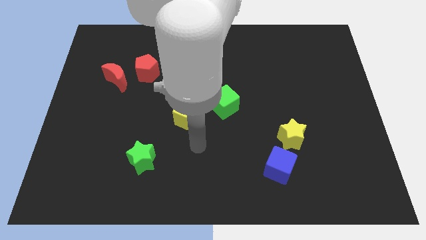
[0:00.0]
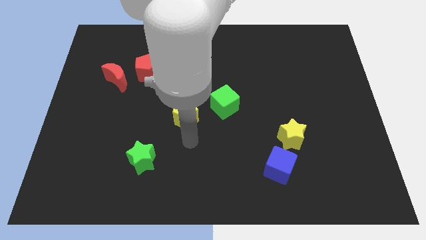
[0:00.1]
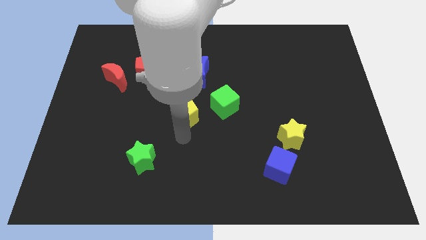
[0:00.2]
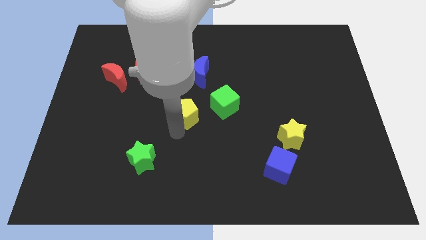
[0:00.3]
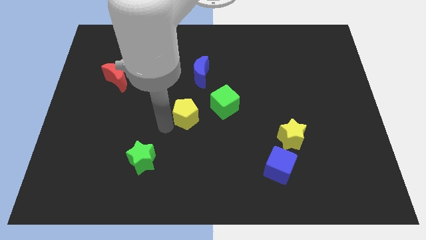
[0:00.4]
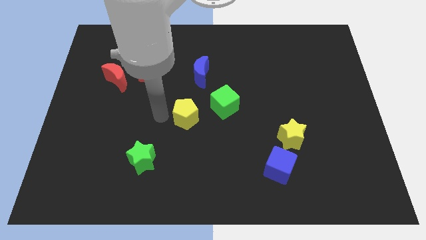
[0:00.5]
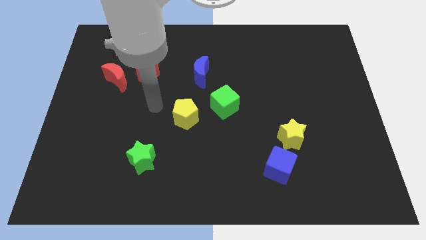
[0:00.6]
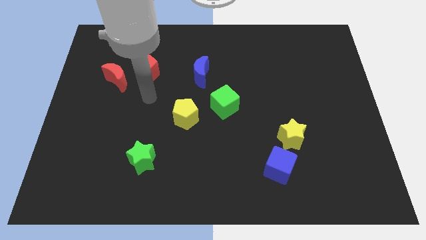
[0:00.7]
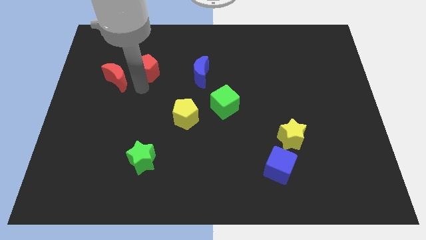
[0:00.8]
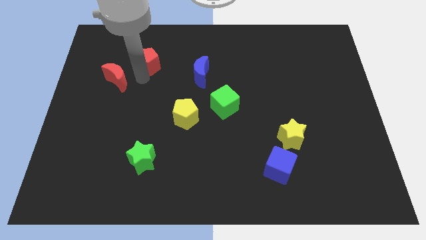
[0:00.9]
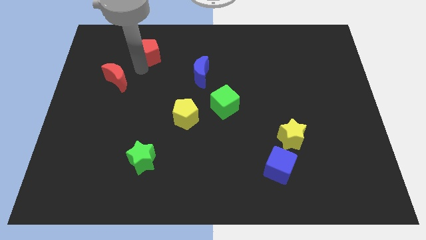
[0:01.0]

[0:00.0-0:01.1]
pull the red moon apart from the red pentagon

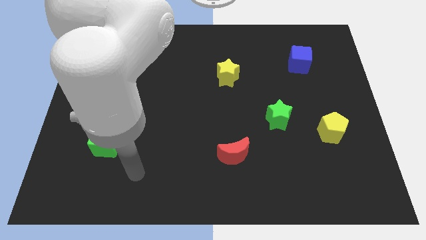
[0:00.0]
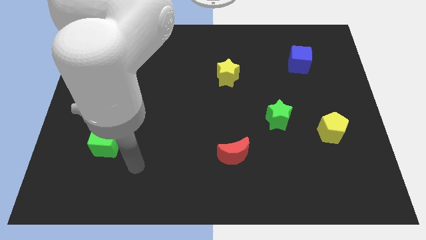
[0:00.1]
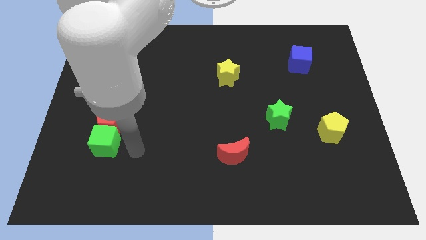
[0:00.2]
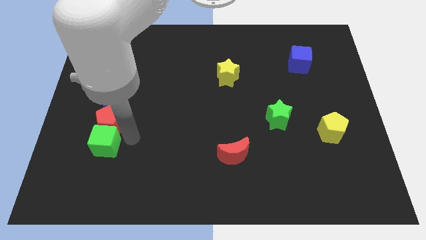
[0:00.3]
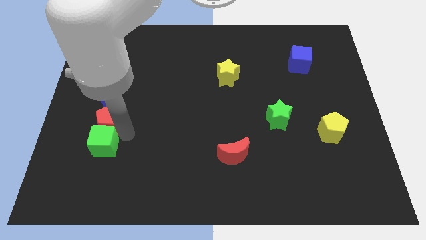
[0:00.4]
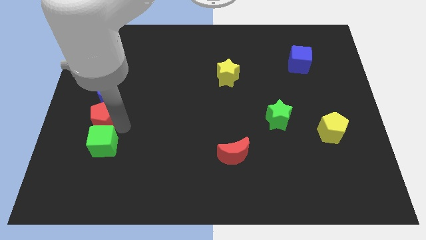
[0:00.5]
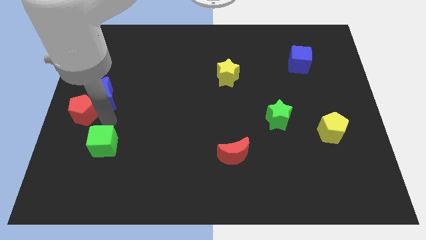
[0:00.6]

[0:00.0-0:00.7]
move the green cube away from the red pentagon

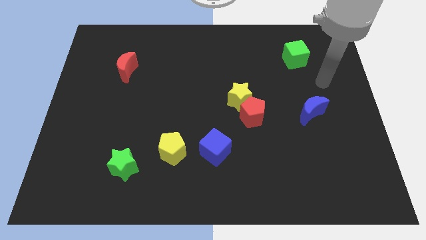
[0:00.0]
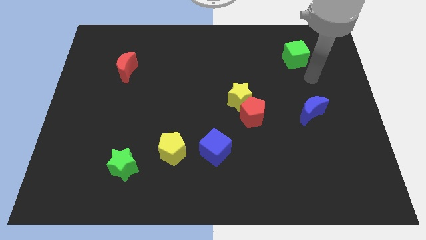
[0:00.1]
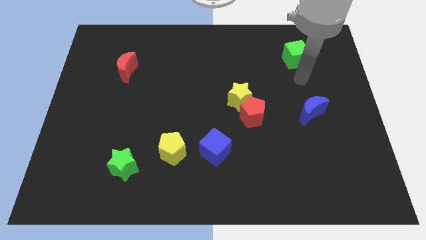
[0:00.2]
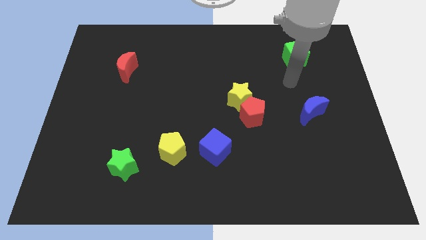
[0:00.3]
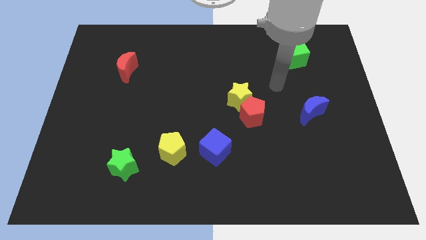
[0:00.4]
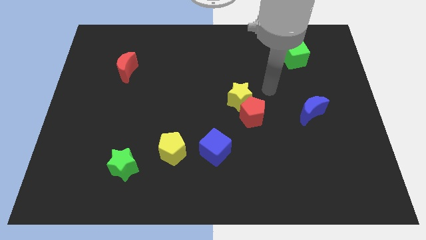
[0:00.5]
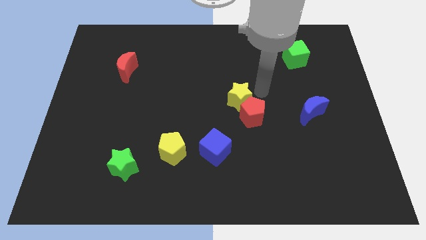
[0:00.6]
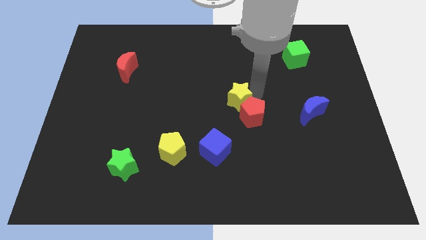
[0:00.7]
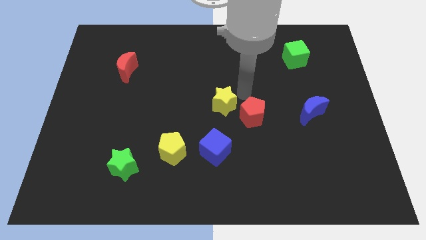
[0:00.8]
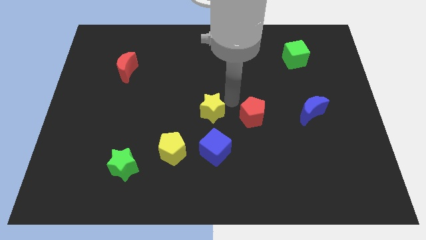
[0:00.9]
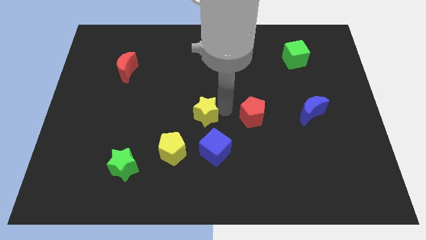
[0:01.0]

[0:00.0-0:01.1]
separate the red pentagon from the yellow star

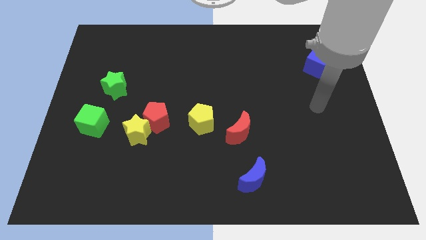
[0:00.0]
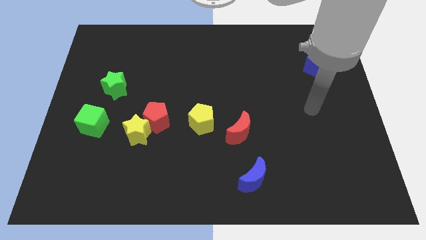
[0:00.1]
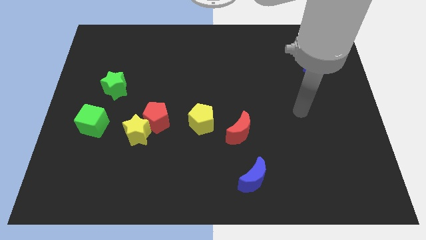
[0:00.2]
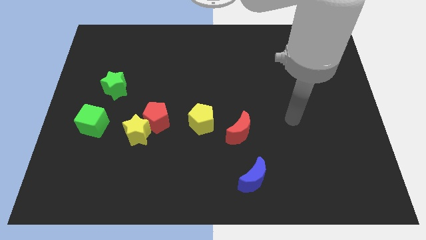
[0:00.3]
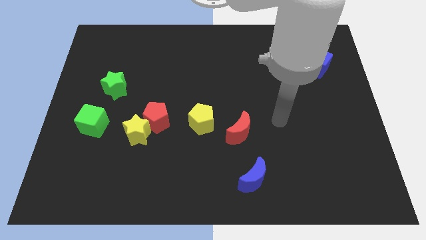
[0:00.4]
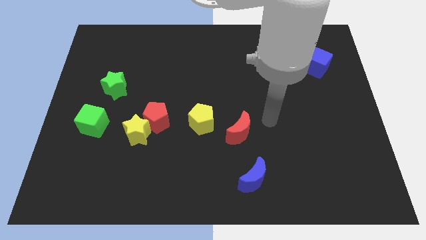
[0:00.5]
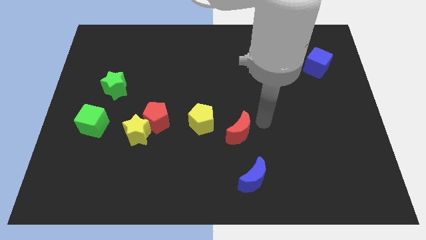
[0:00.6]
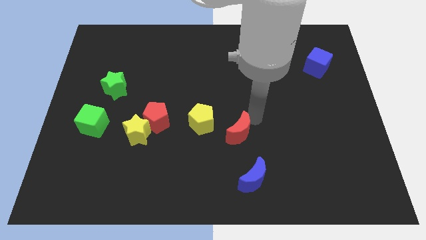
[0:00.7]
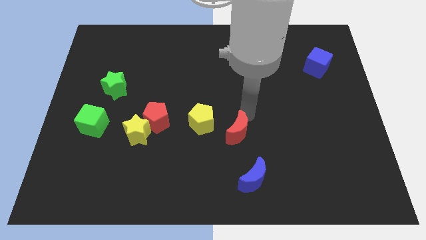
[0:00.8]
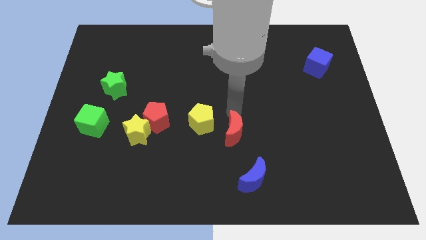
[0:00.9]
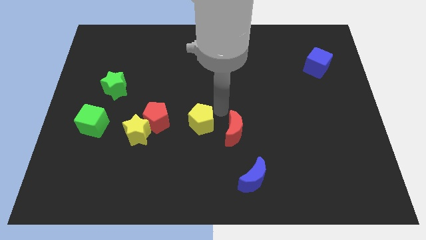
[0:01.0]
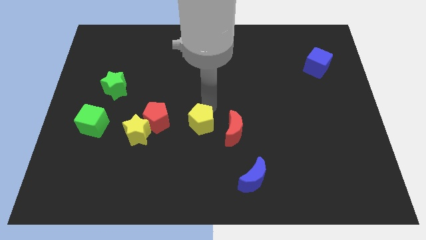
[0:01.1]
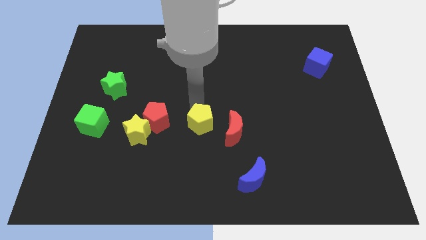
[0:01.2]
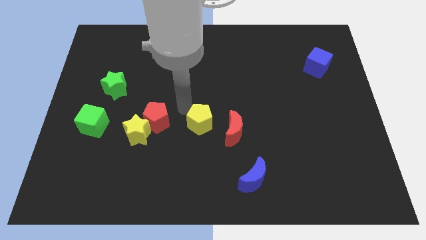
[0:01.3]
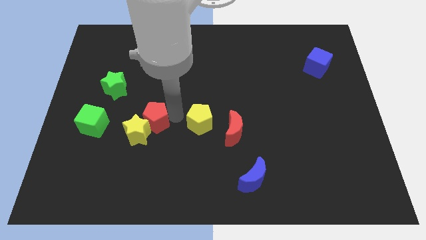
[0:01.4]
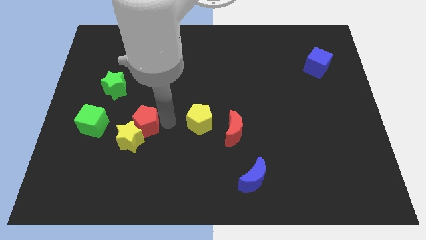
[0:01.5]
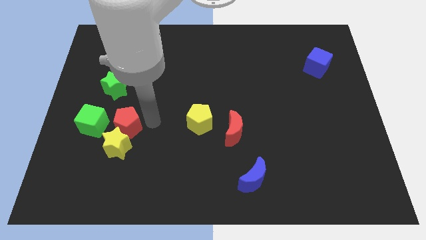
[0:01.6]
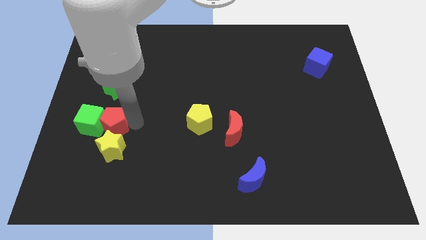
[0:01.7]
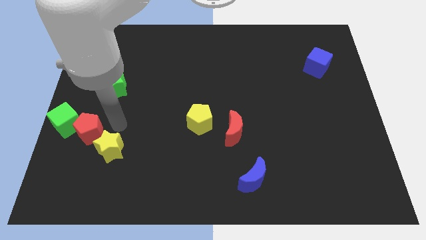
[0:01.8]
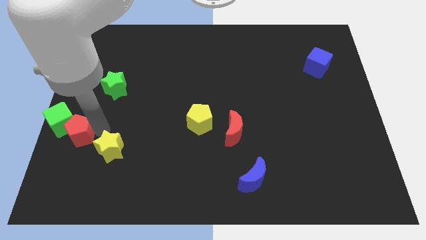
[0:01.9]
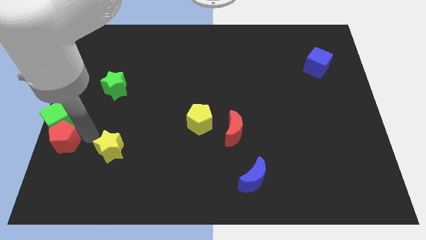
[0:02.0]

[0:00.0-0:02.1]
move the yellow star away from the red pentagon

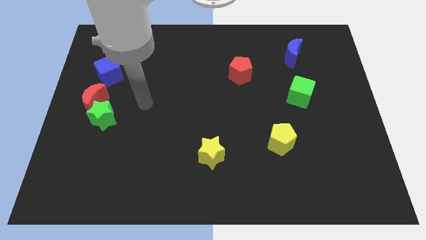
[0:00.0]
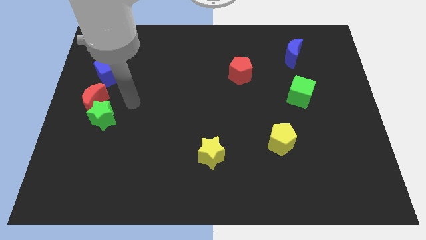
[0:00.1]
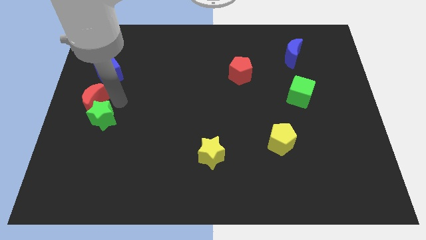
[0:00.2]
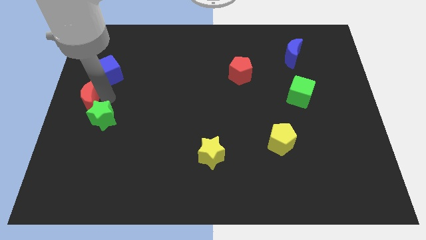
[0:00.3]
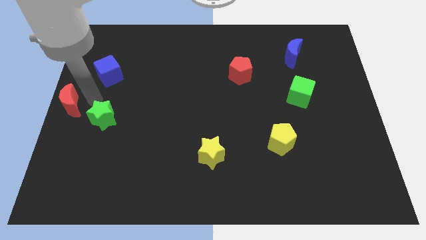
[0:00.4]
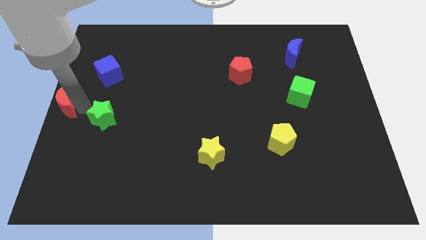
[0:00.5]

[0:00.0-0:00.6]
separate the green star from the red moon

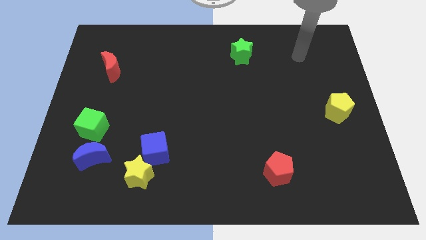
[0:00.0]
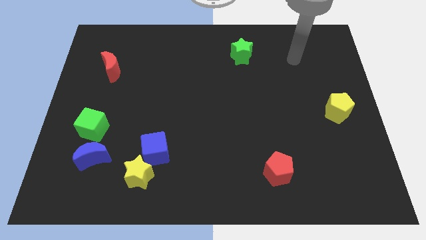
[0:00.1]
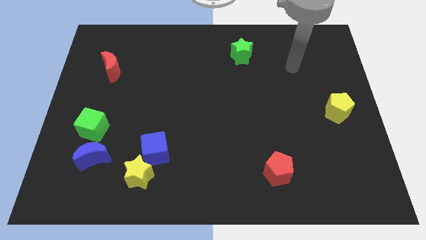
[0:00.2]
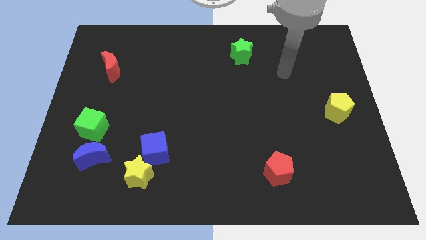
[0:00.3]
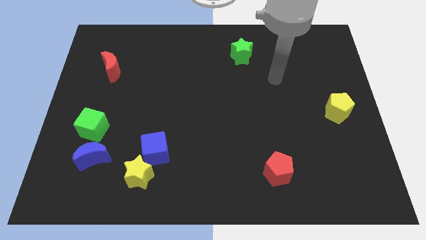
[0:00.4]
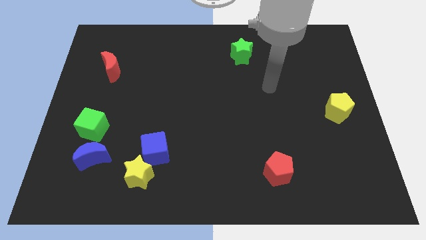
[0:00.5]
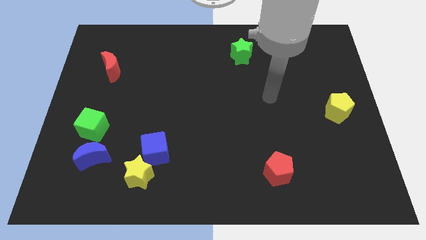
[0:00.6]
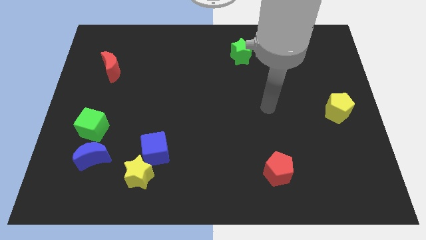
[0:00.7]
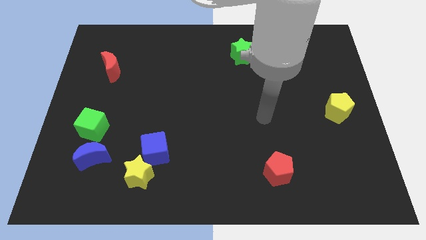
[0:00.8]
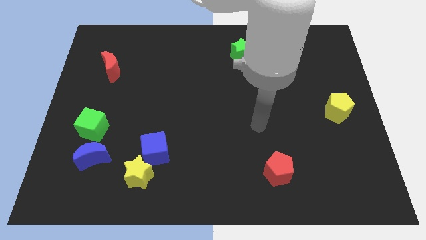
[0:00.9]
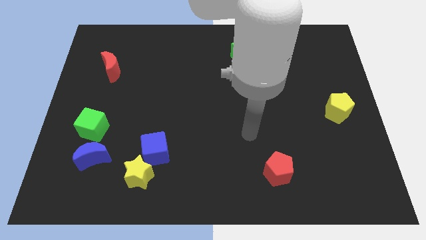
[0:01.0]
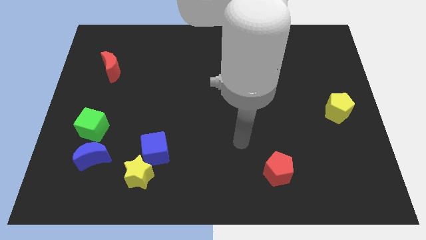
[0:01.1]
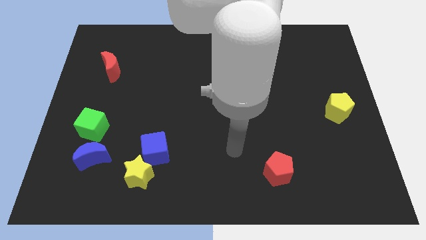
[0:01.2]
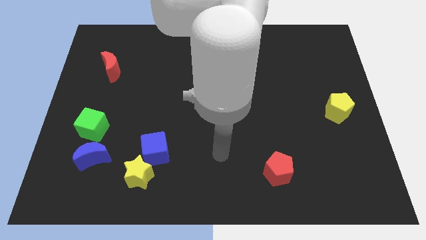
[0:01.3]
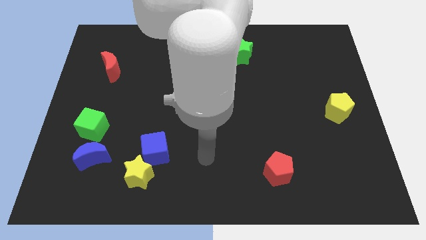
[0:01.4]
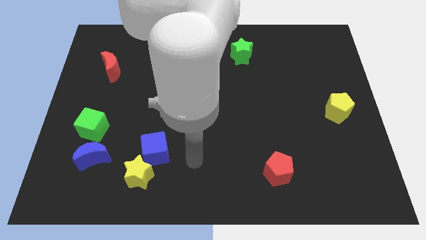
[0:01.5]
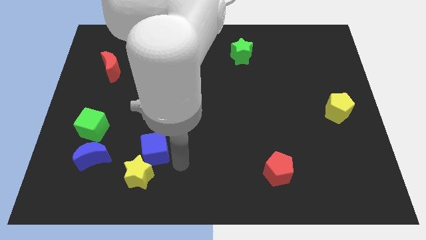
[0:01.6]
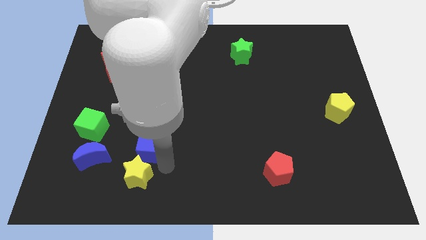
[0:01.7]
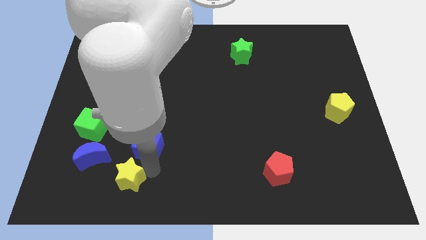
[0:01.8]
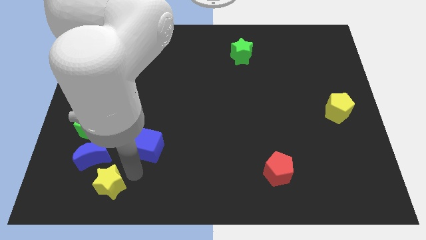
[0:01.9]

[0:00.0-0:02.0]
separate the blue cube from the yellow star

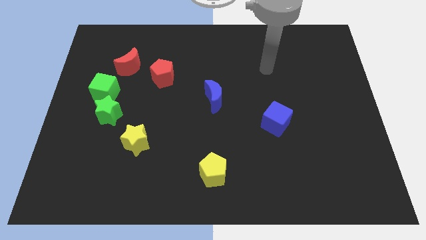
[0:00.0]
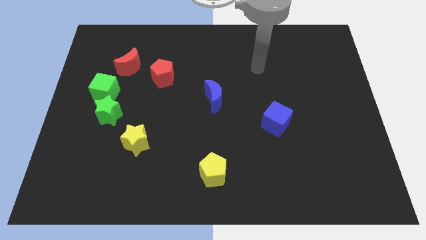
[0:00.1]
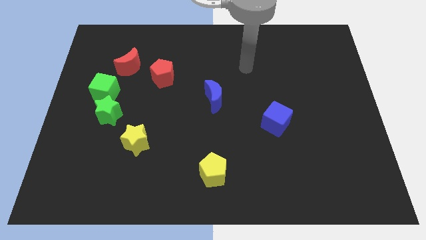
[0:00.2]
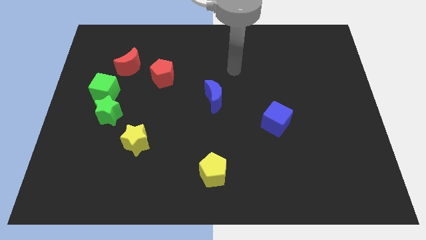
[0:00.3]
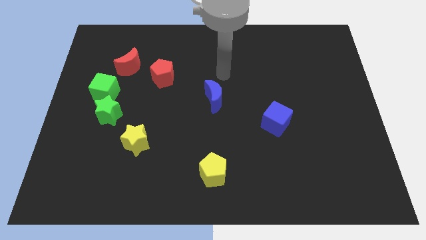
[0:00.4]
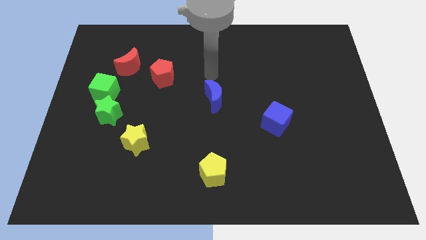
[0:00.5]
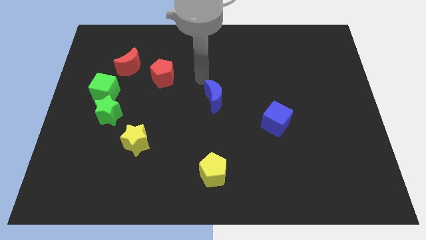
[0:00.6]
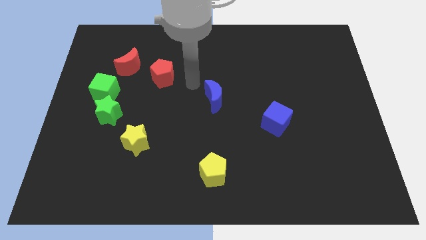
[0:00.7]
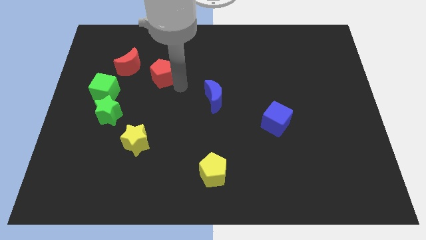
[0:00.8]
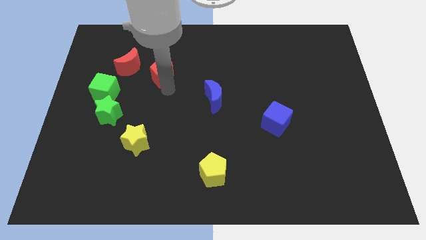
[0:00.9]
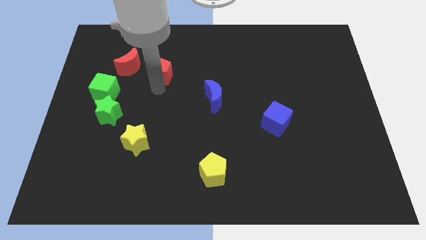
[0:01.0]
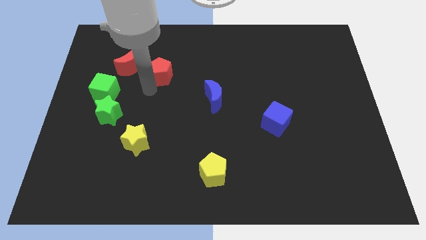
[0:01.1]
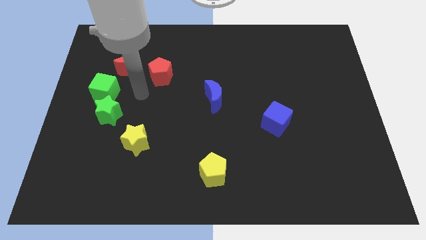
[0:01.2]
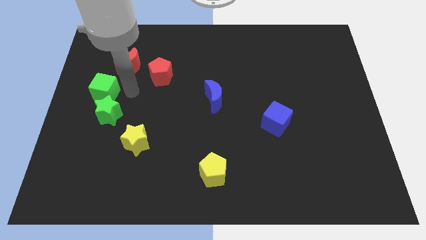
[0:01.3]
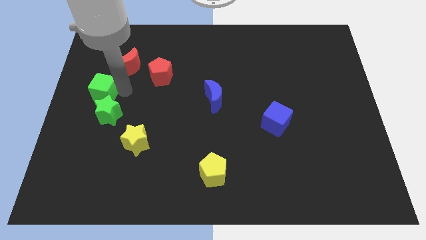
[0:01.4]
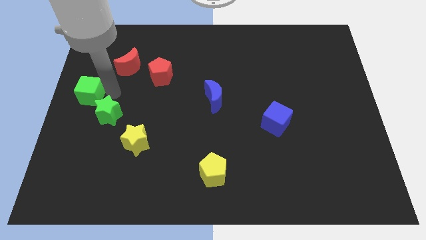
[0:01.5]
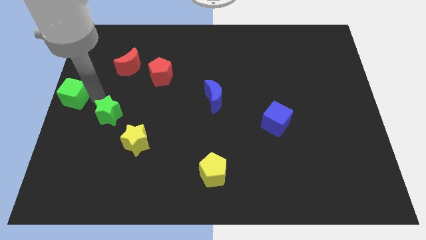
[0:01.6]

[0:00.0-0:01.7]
move the green star away from the green cube
